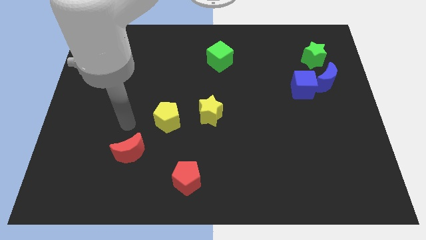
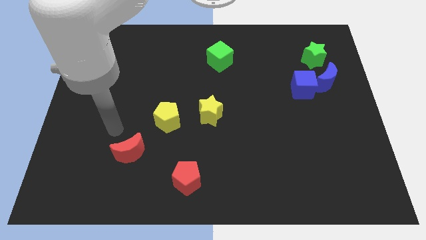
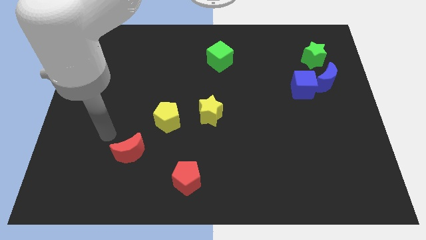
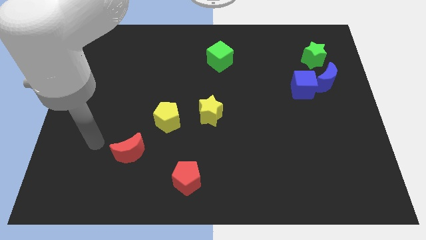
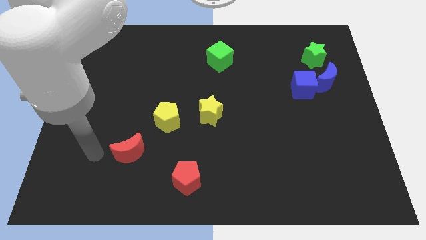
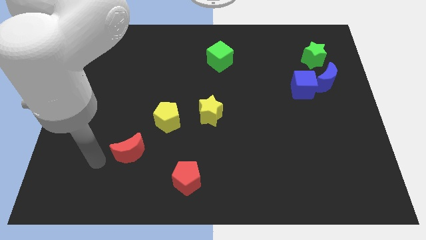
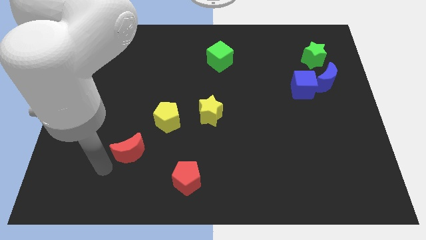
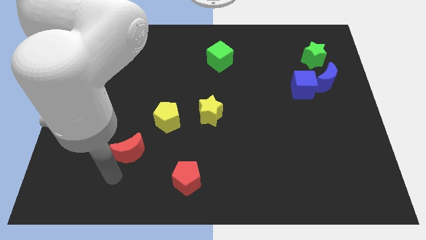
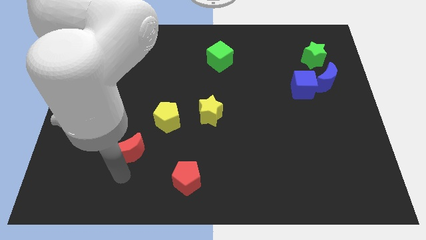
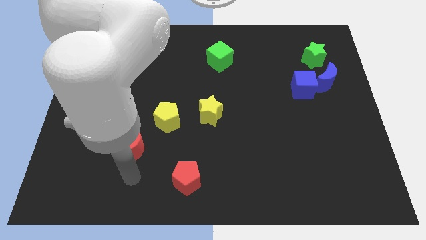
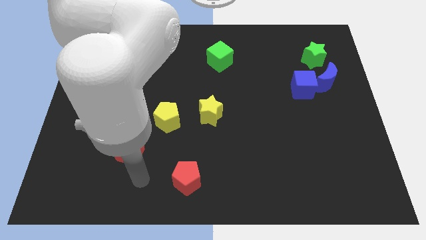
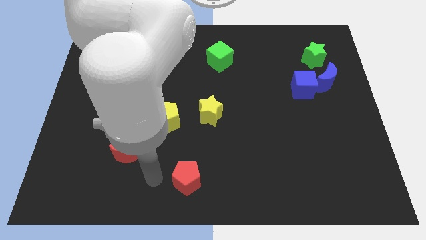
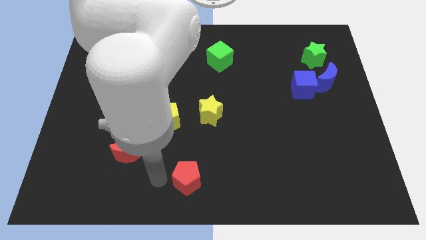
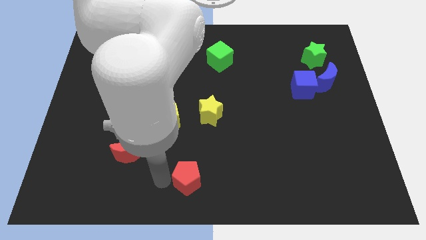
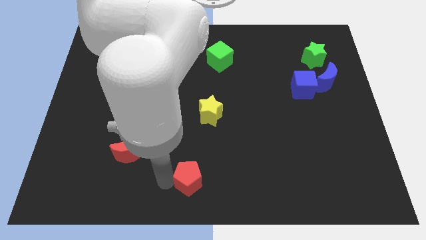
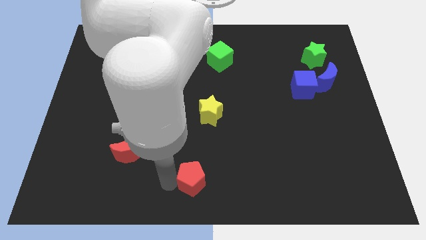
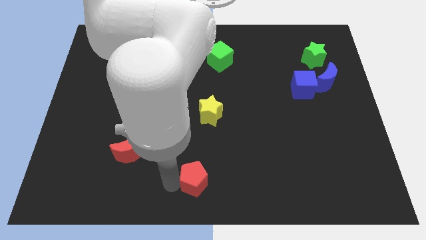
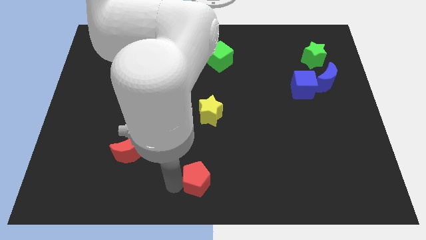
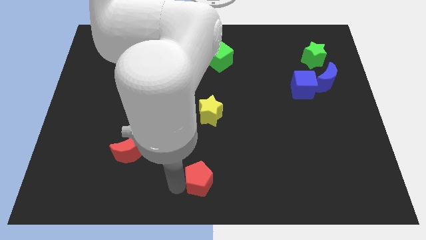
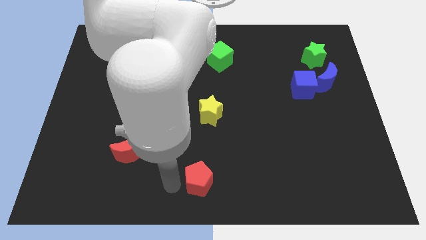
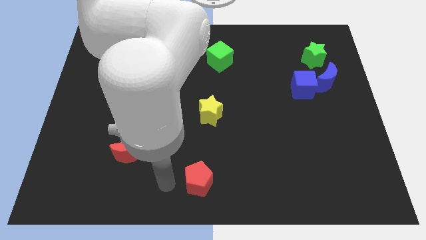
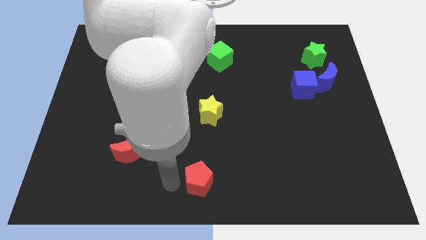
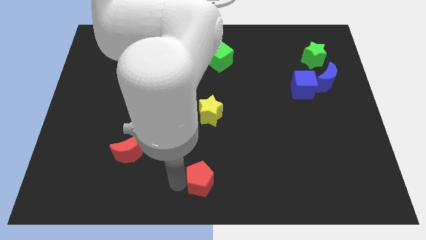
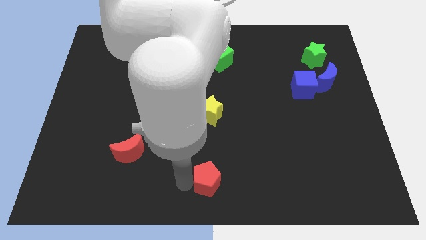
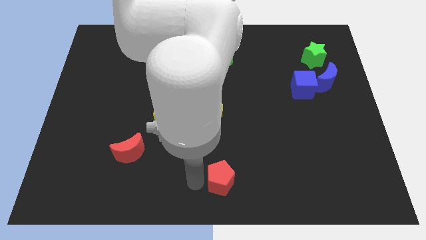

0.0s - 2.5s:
push the red pentagon a bit right

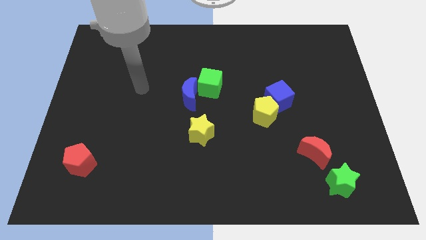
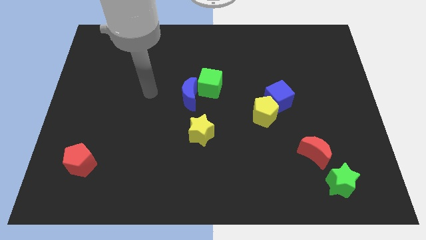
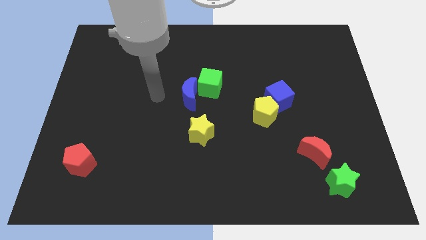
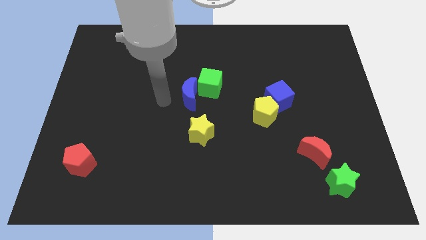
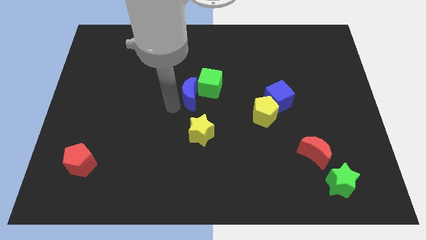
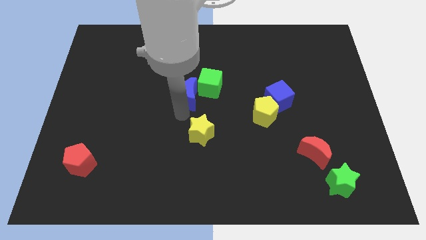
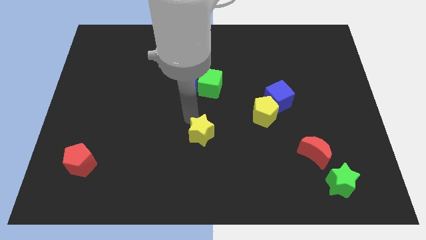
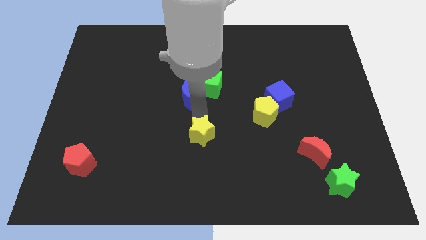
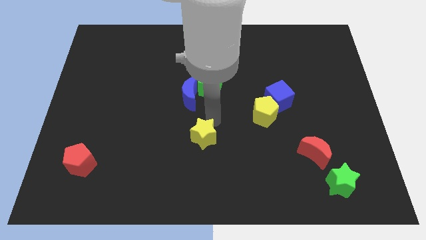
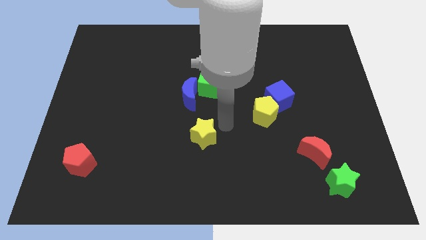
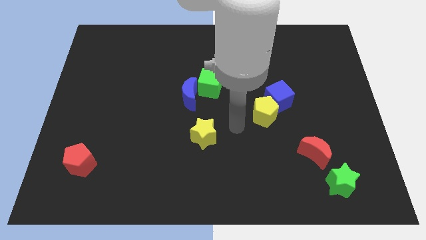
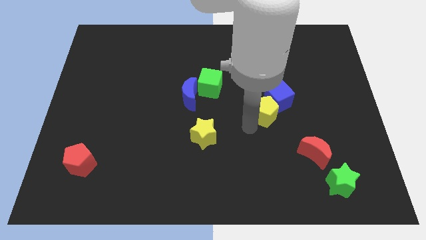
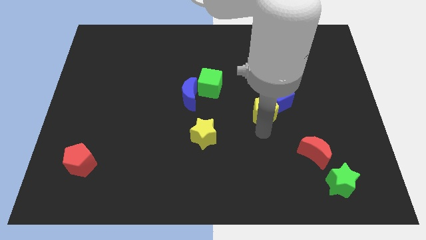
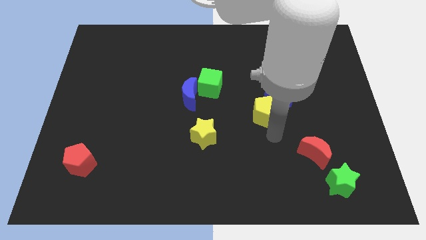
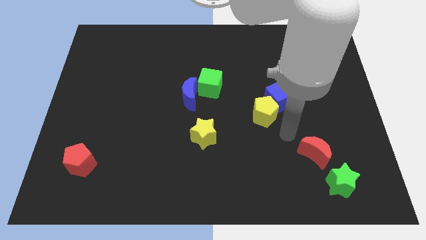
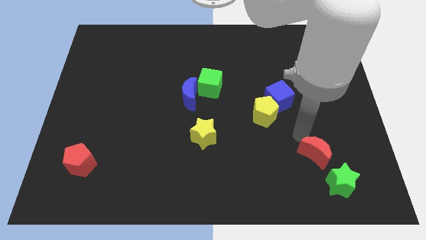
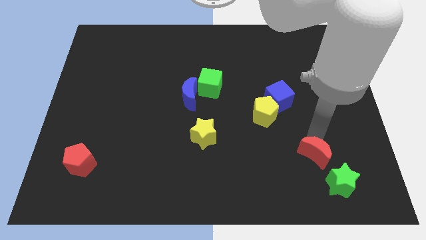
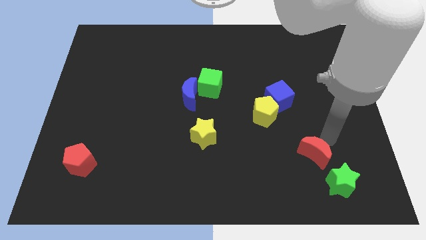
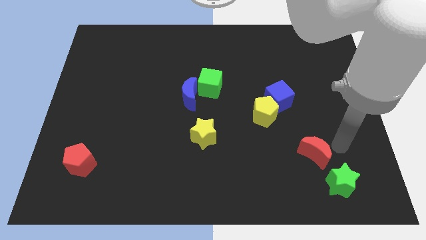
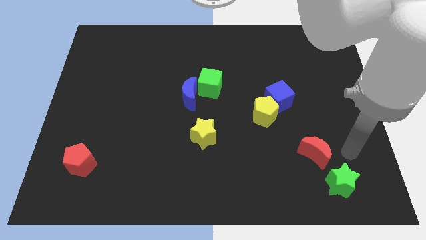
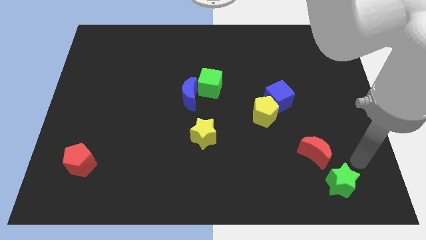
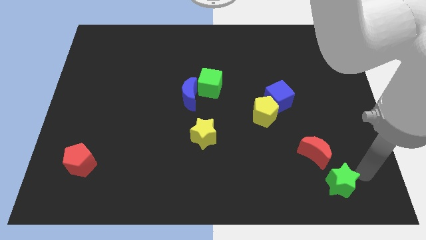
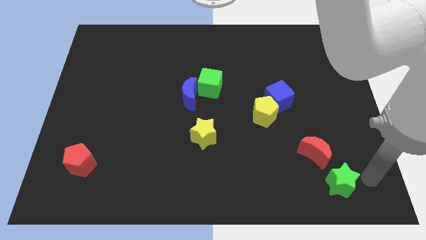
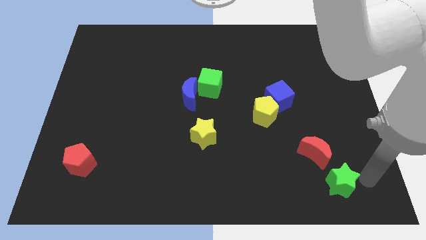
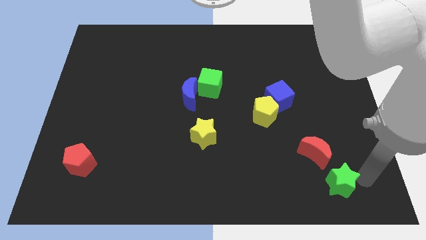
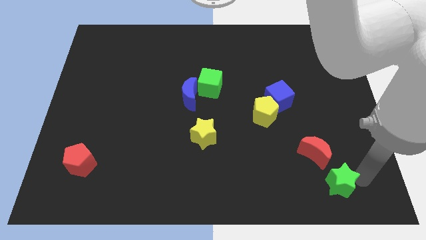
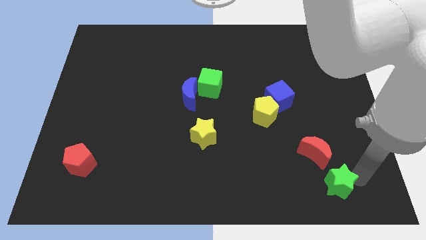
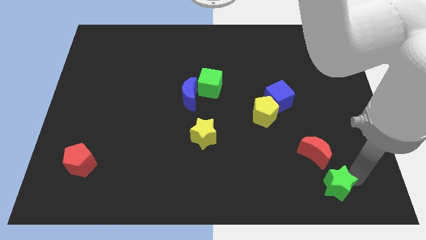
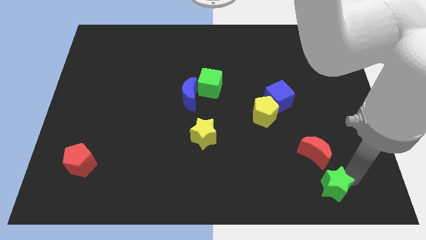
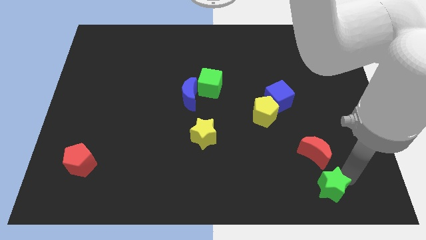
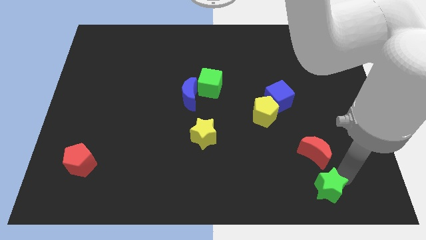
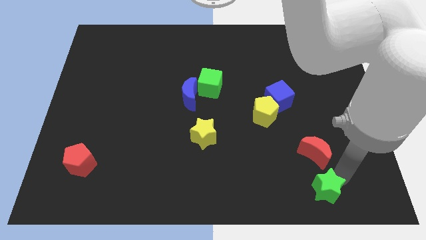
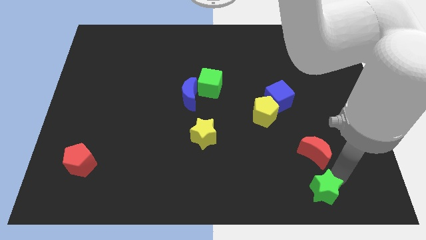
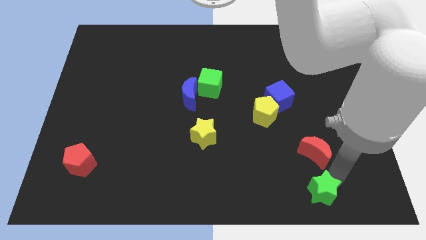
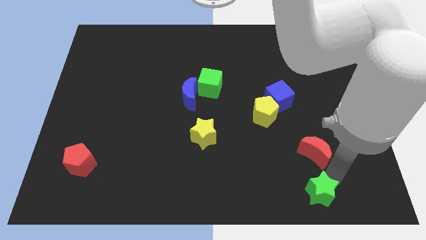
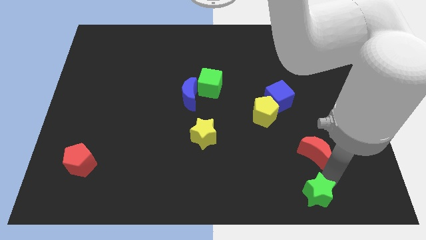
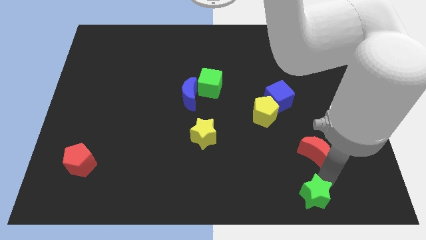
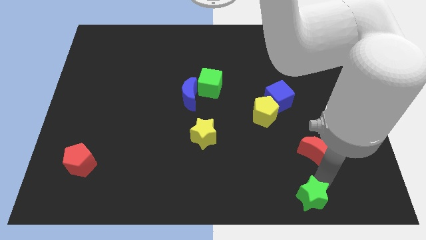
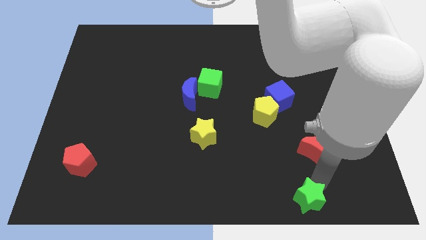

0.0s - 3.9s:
slide the green star to the left somewhat

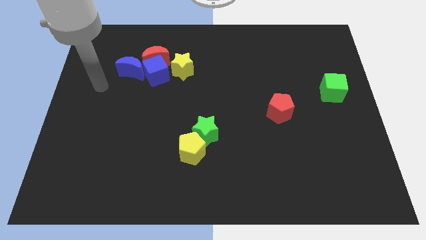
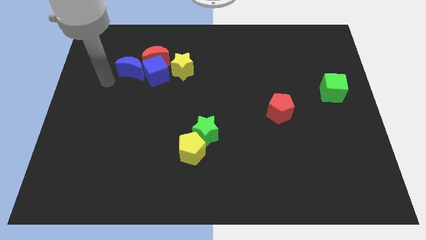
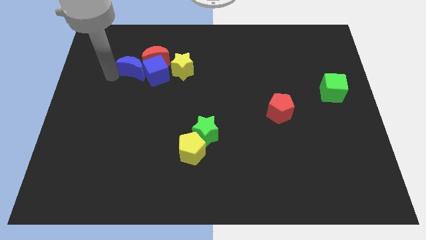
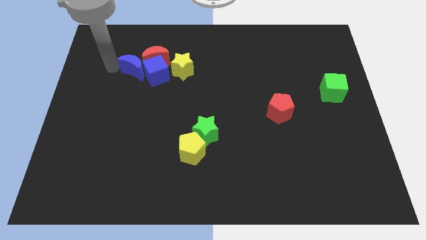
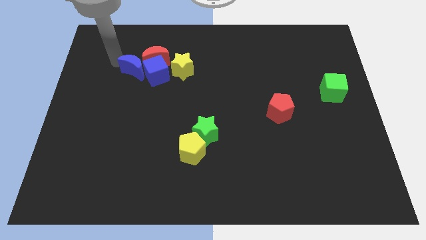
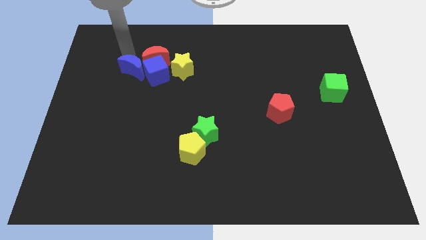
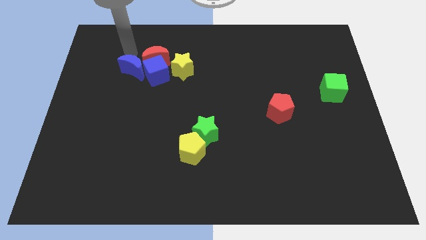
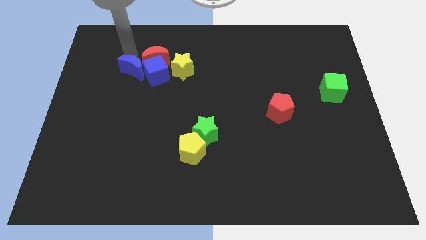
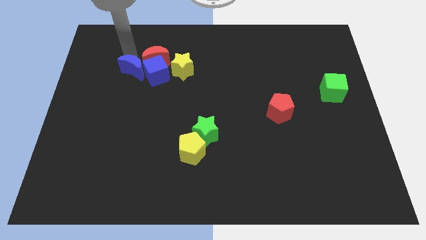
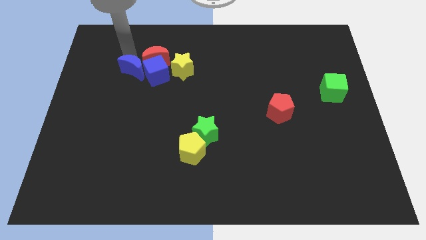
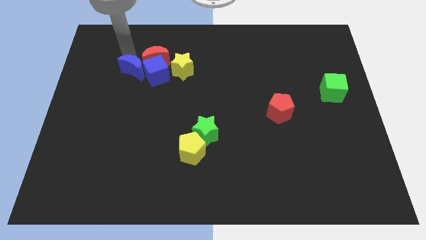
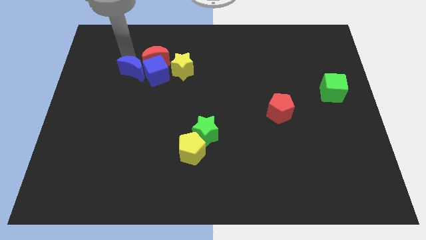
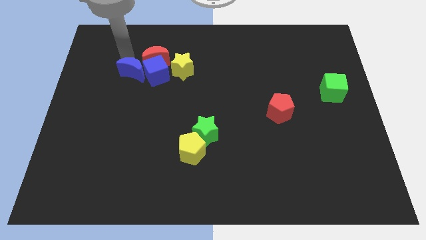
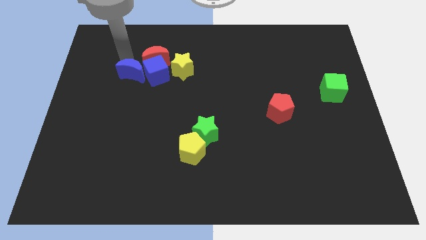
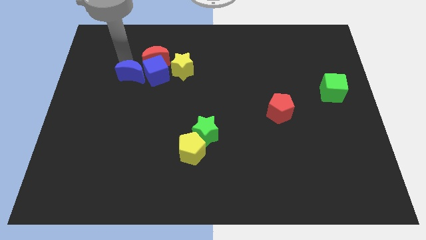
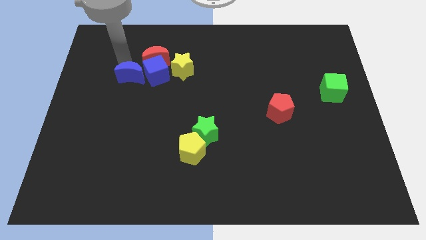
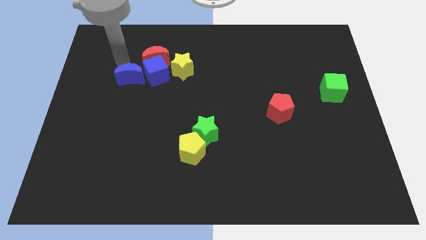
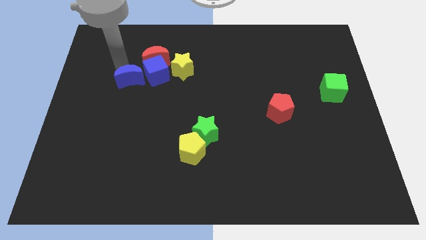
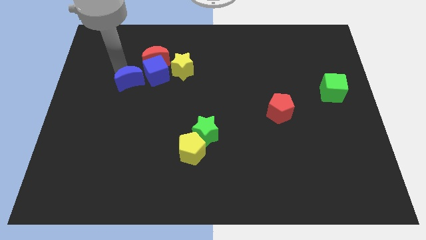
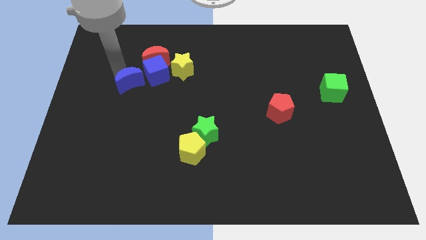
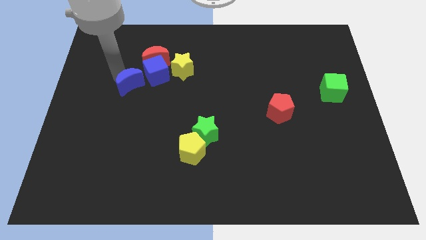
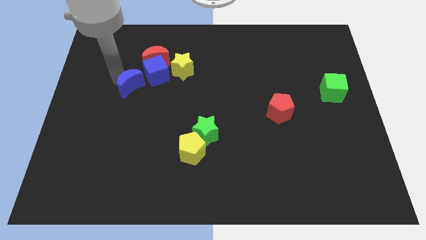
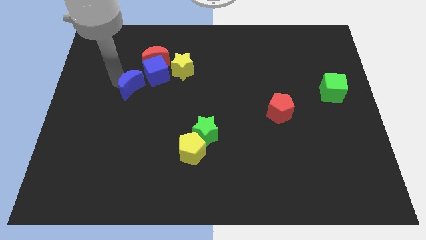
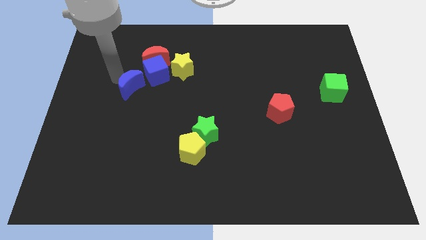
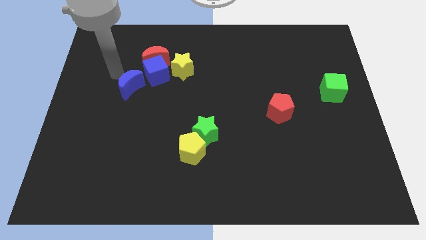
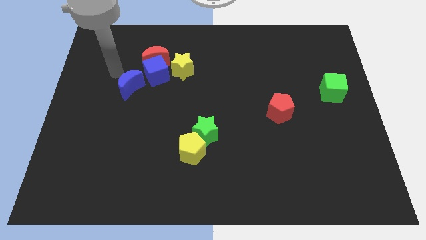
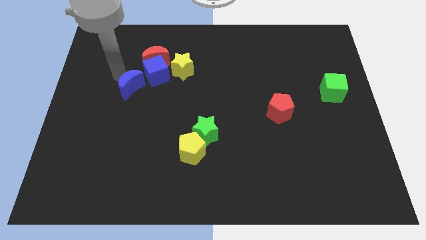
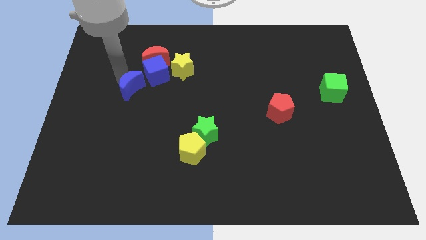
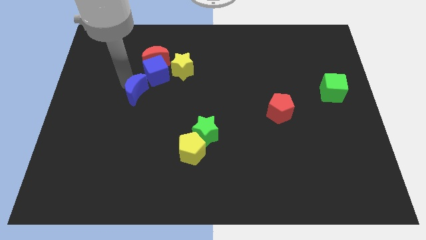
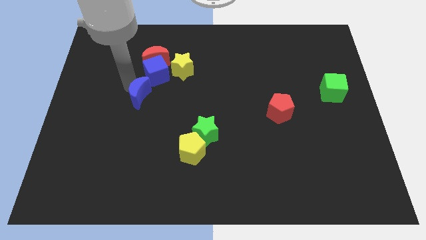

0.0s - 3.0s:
slide the blue moon a little bit down and then right
